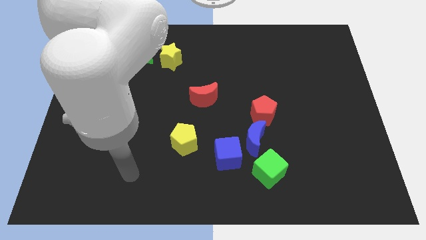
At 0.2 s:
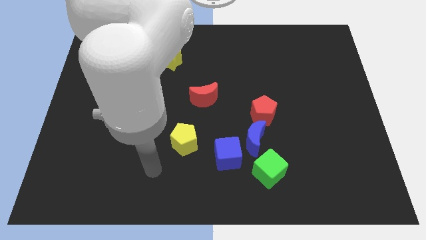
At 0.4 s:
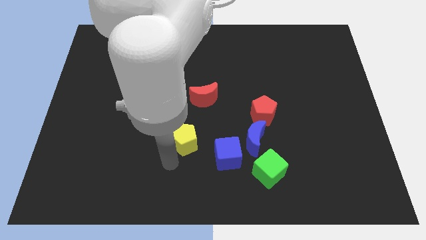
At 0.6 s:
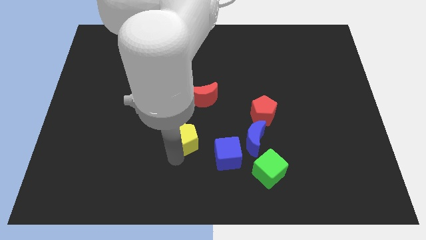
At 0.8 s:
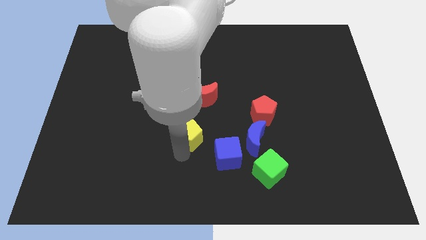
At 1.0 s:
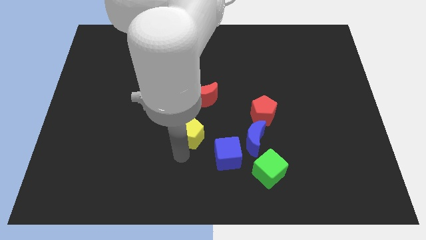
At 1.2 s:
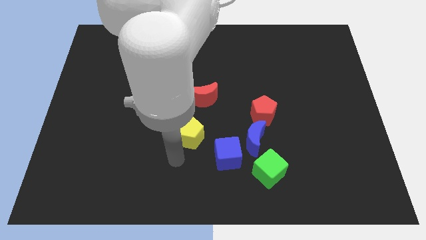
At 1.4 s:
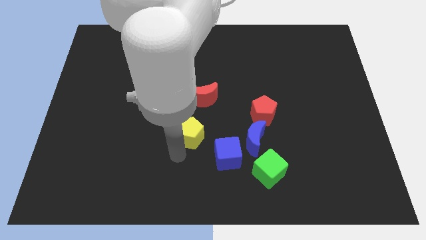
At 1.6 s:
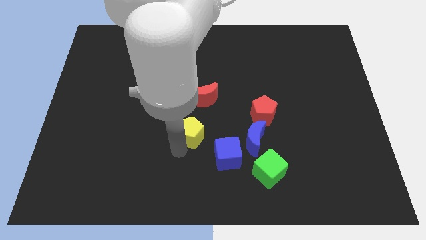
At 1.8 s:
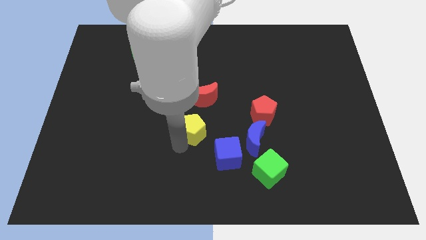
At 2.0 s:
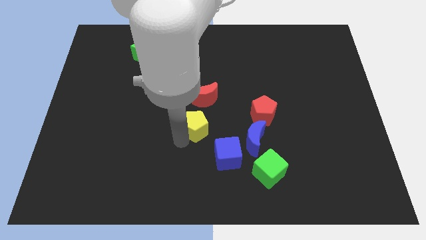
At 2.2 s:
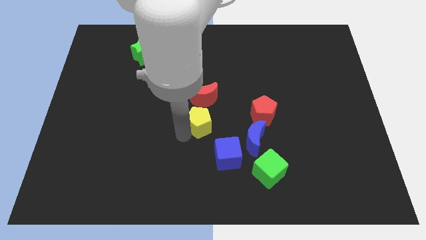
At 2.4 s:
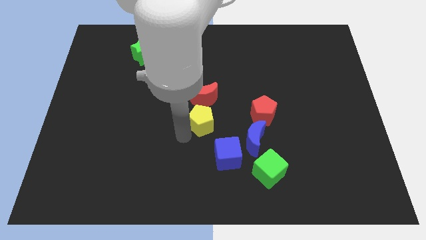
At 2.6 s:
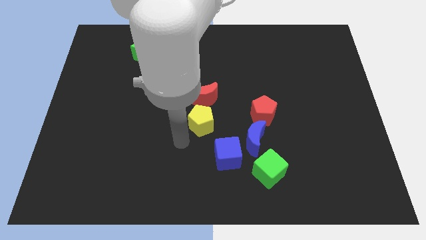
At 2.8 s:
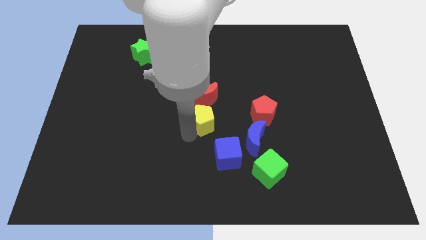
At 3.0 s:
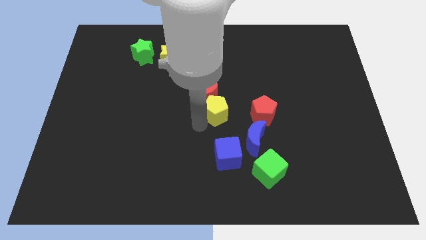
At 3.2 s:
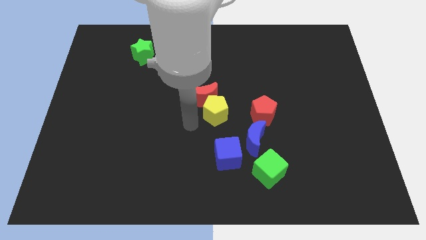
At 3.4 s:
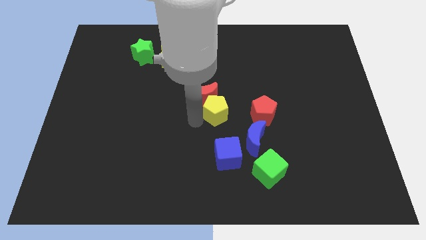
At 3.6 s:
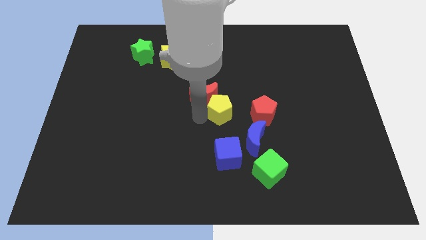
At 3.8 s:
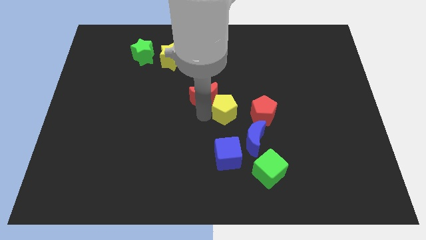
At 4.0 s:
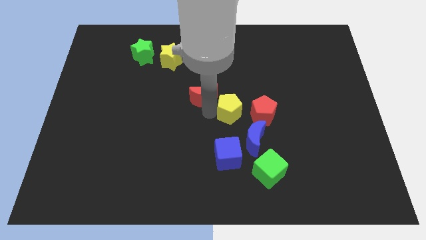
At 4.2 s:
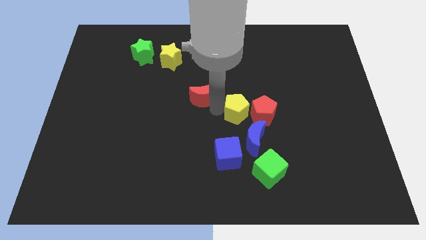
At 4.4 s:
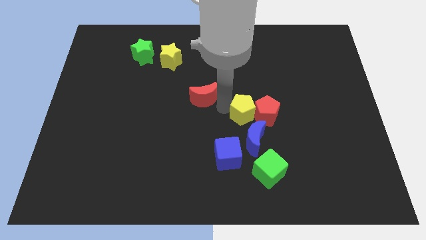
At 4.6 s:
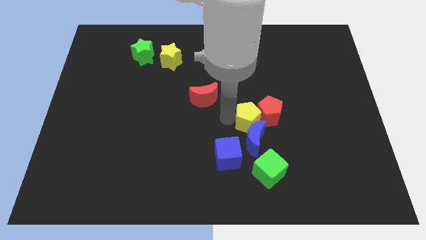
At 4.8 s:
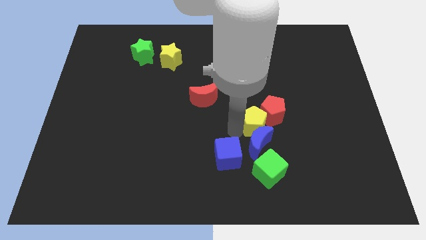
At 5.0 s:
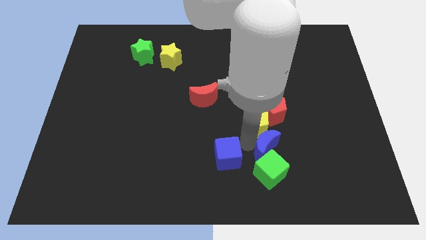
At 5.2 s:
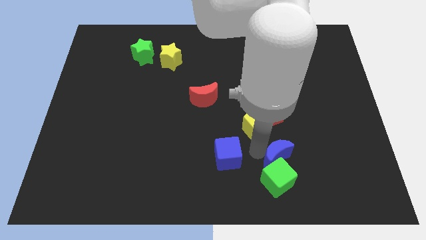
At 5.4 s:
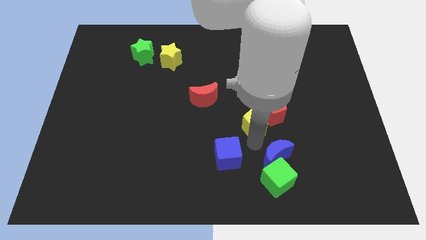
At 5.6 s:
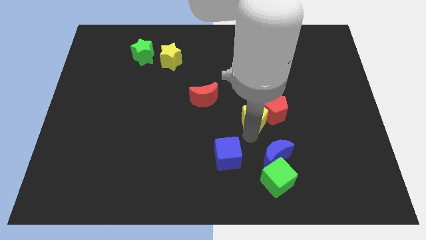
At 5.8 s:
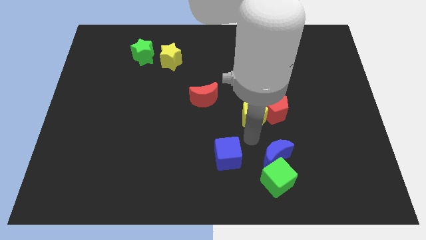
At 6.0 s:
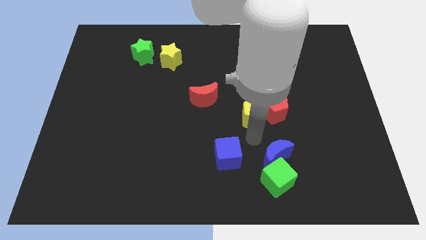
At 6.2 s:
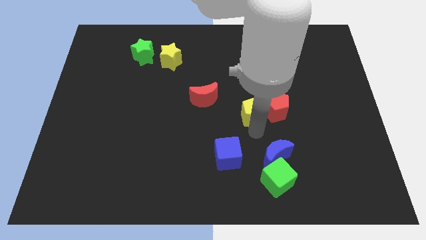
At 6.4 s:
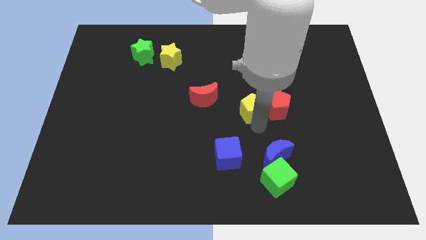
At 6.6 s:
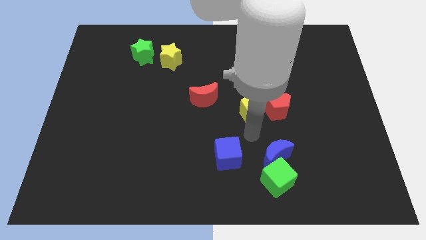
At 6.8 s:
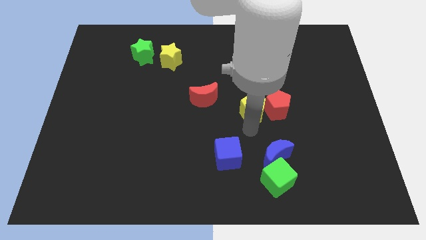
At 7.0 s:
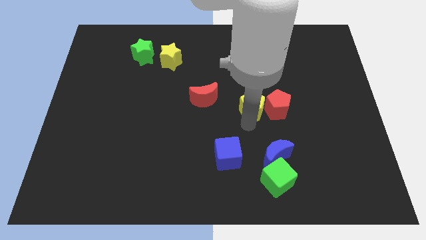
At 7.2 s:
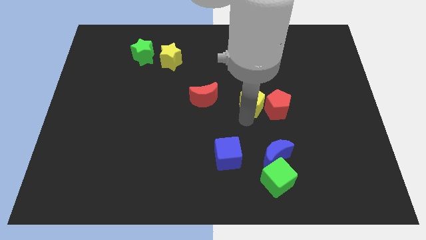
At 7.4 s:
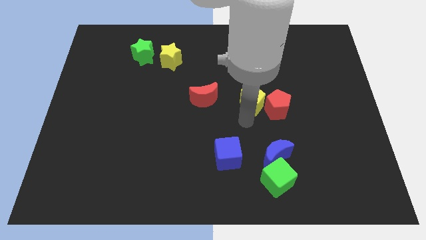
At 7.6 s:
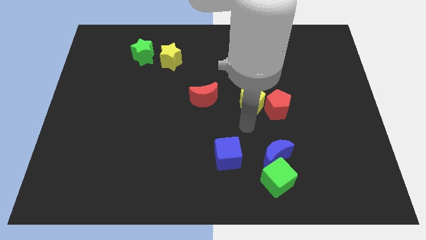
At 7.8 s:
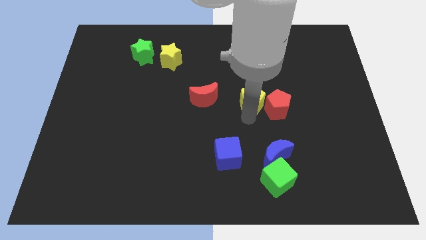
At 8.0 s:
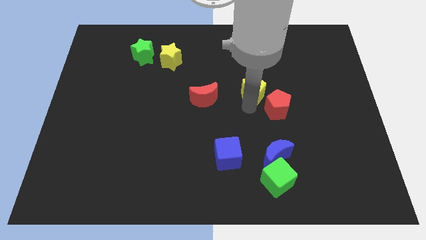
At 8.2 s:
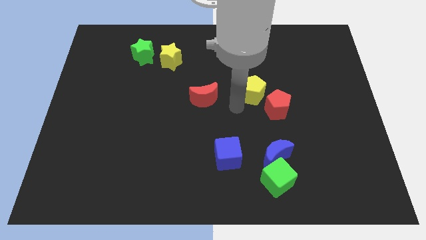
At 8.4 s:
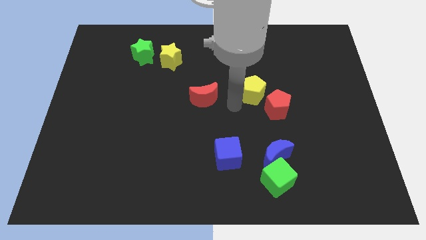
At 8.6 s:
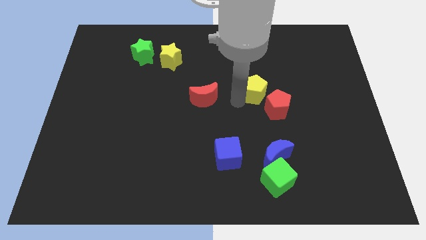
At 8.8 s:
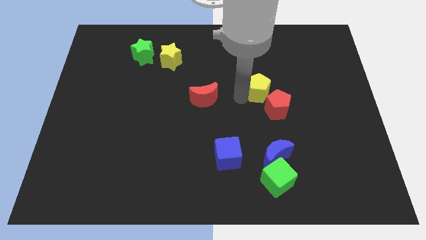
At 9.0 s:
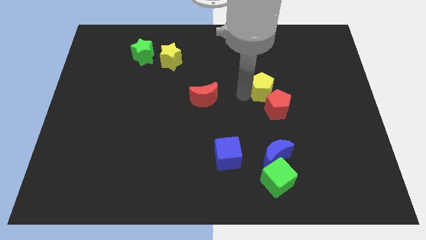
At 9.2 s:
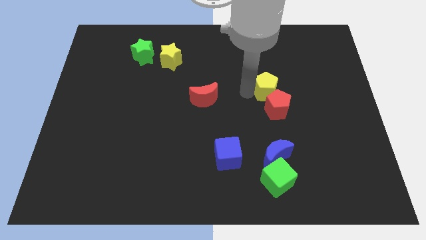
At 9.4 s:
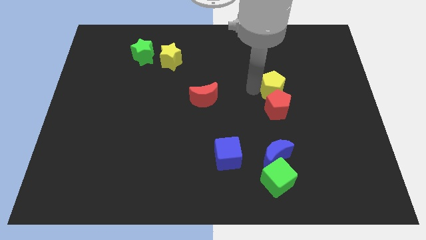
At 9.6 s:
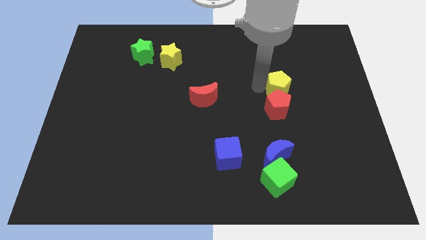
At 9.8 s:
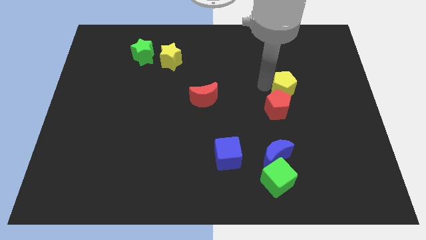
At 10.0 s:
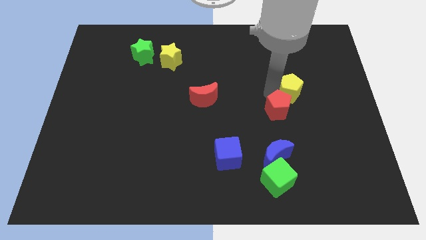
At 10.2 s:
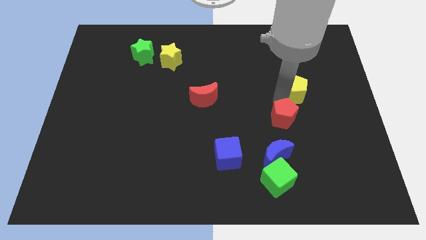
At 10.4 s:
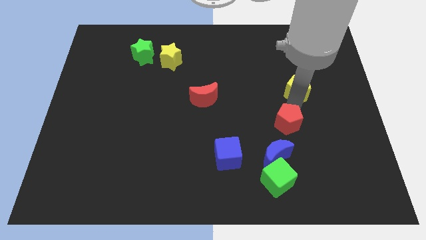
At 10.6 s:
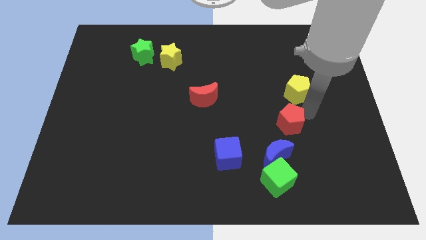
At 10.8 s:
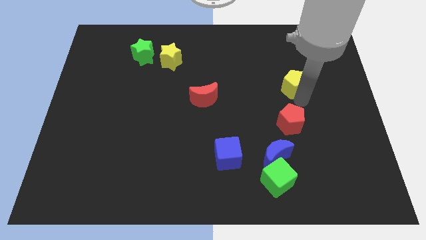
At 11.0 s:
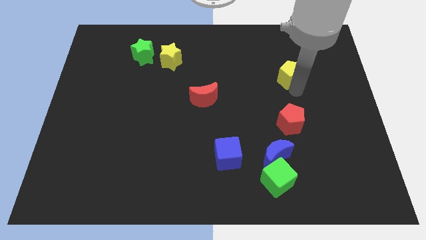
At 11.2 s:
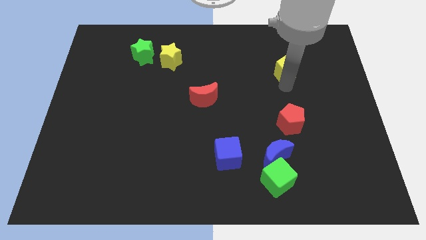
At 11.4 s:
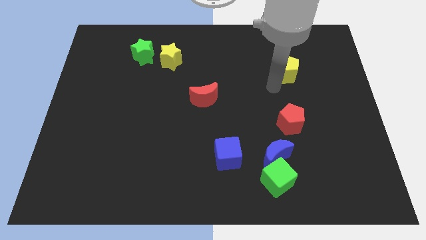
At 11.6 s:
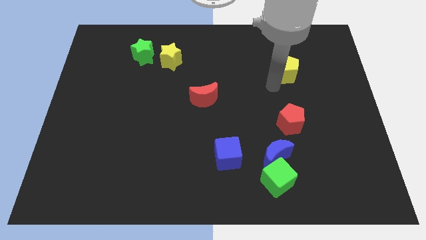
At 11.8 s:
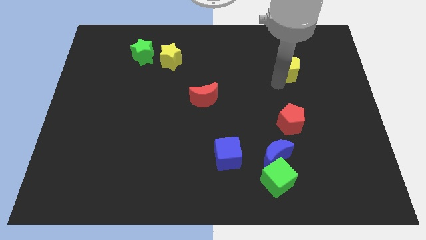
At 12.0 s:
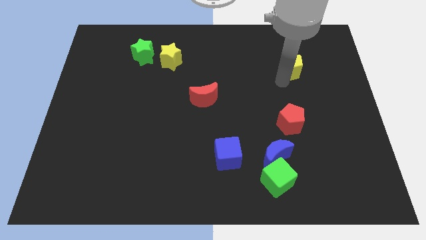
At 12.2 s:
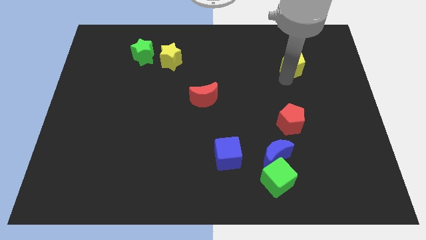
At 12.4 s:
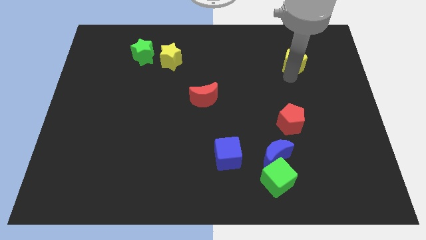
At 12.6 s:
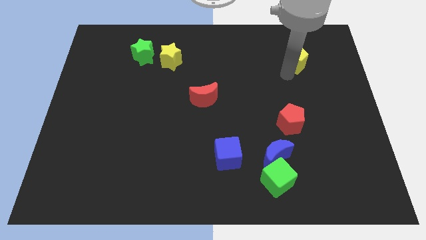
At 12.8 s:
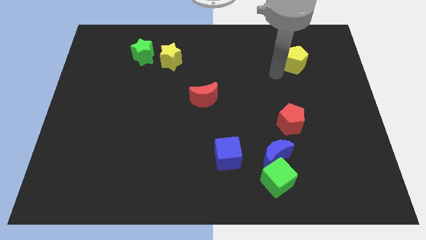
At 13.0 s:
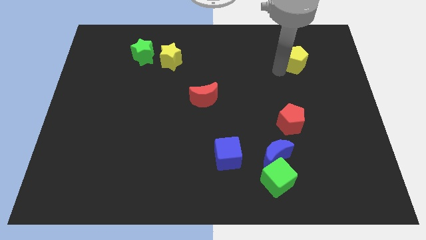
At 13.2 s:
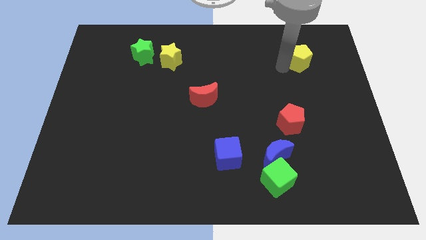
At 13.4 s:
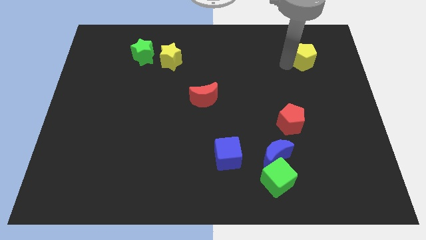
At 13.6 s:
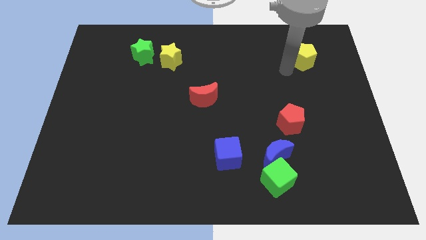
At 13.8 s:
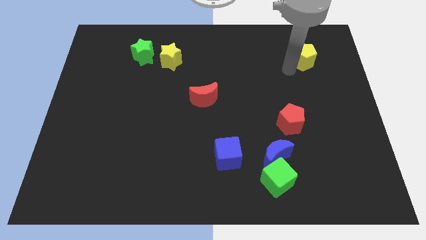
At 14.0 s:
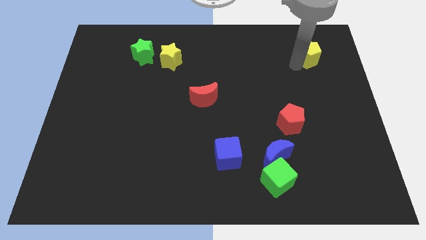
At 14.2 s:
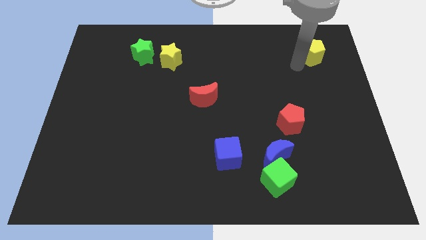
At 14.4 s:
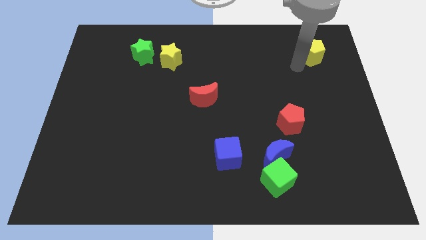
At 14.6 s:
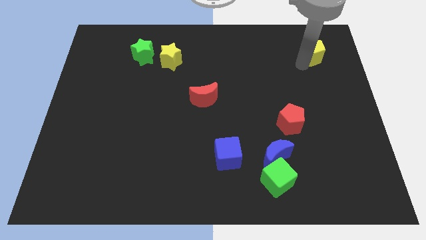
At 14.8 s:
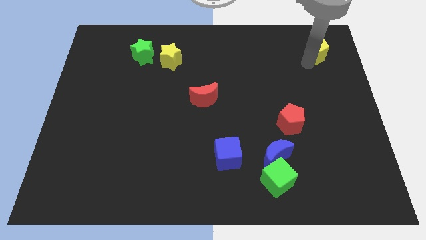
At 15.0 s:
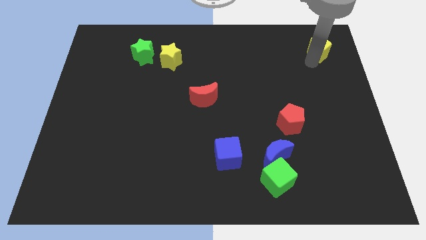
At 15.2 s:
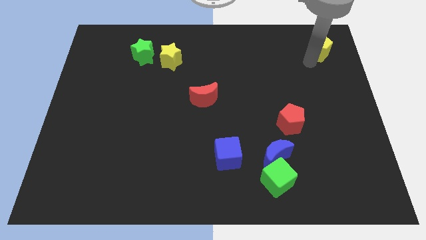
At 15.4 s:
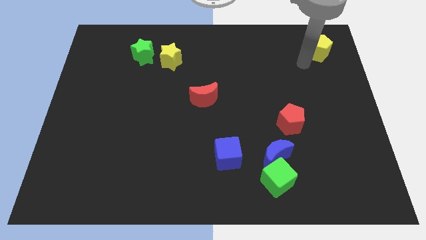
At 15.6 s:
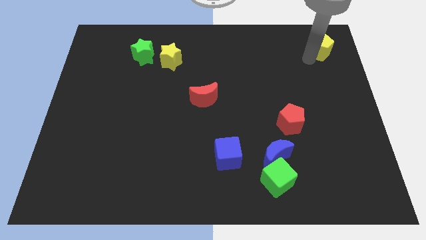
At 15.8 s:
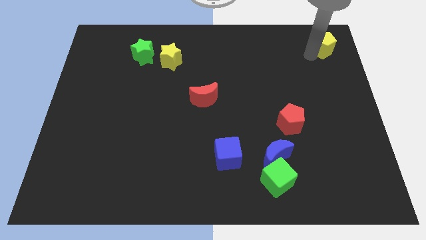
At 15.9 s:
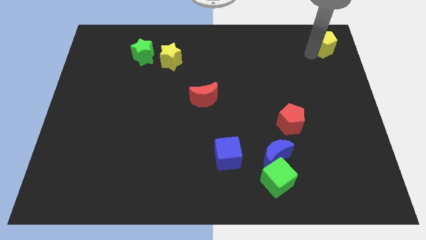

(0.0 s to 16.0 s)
move the yellow pentagon to the top right corner
